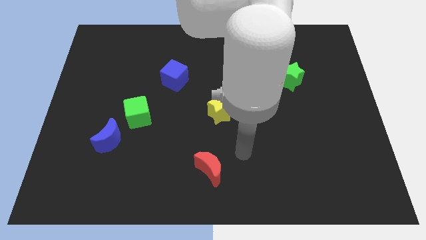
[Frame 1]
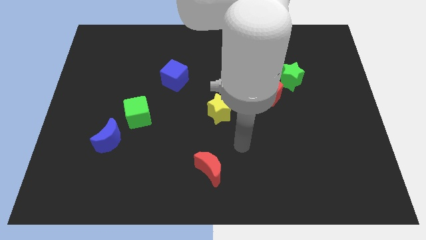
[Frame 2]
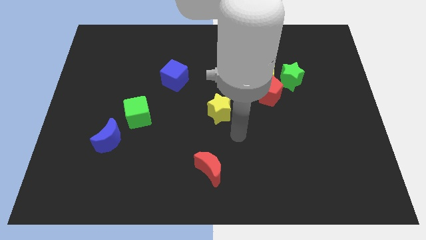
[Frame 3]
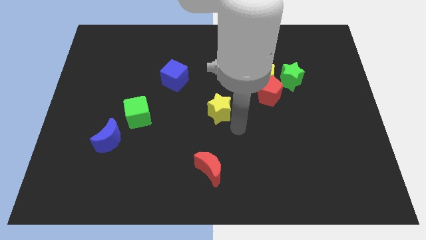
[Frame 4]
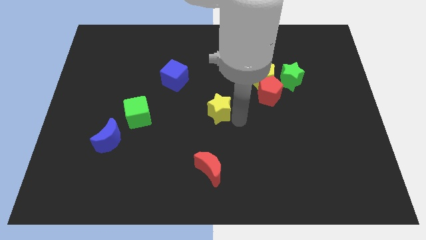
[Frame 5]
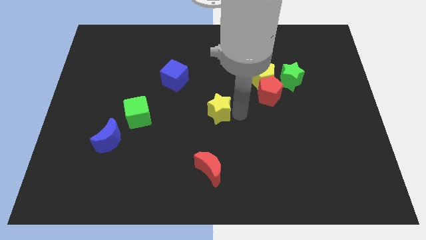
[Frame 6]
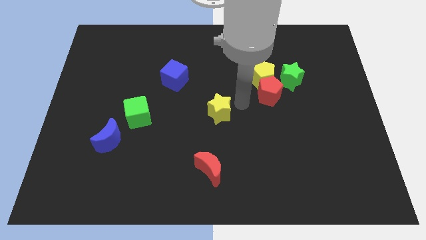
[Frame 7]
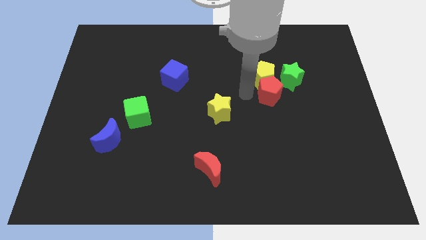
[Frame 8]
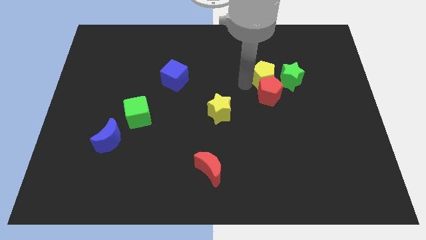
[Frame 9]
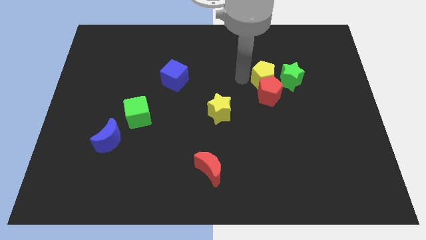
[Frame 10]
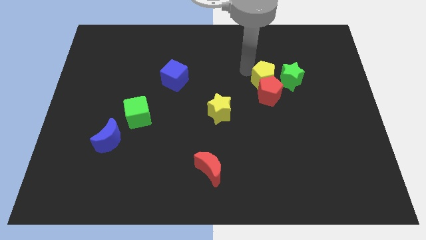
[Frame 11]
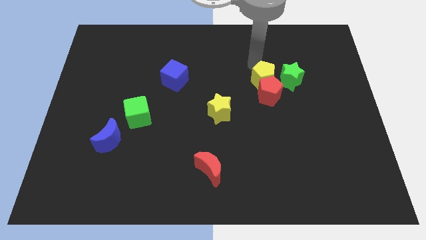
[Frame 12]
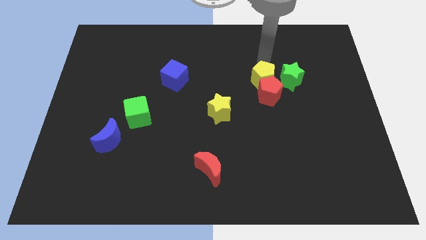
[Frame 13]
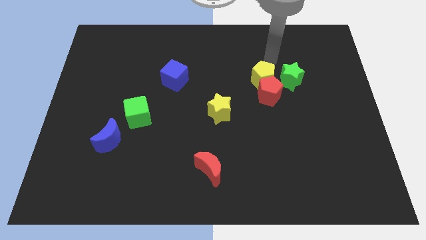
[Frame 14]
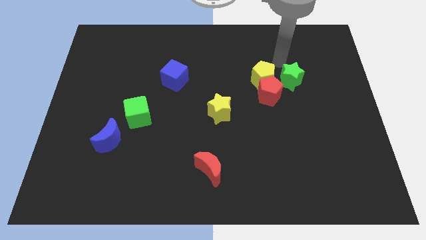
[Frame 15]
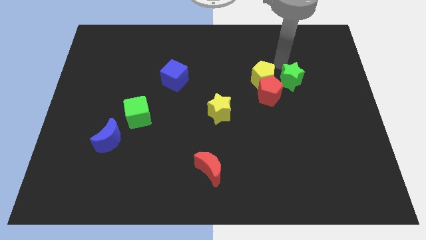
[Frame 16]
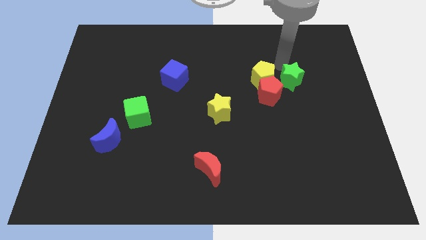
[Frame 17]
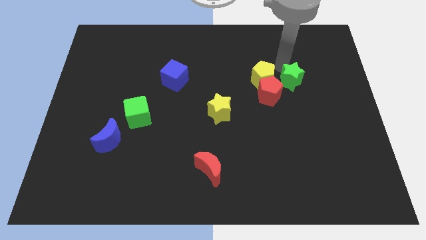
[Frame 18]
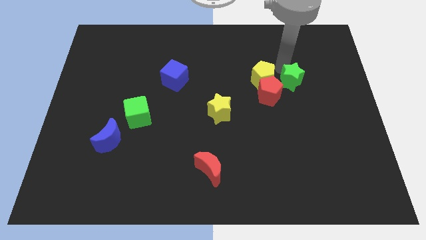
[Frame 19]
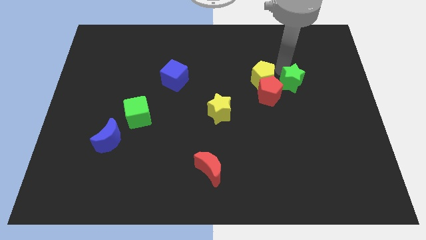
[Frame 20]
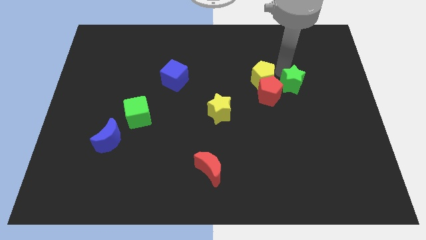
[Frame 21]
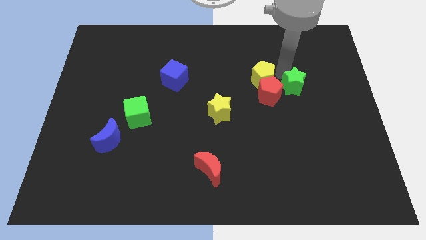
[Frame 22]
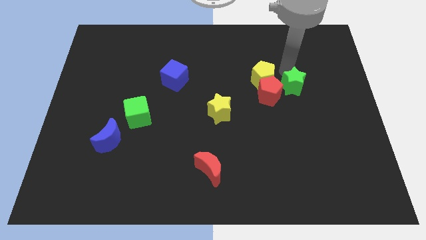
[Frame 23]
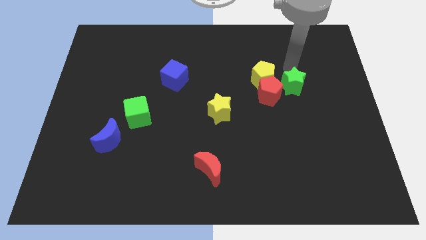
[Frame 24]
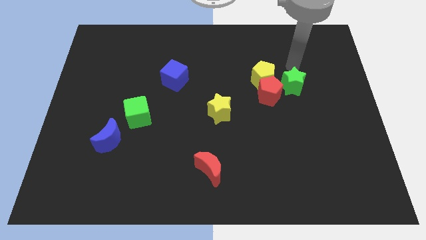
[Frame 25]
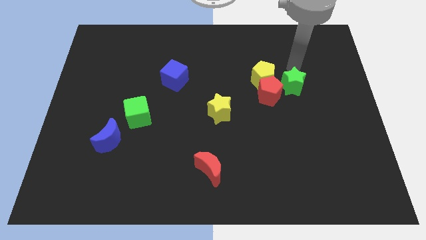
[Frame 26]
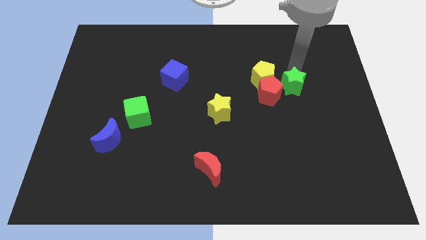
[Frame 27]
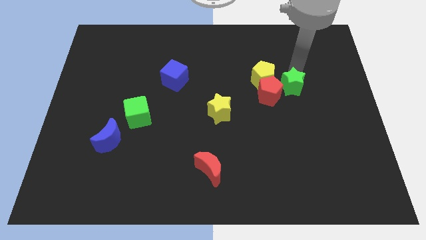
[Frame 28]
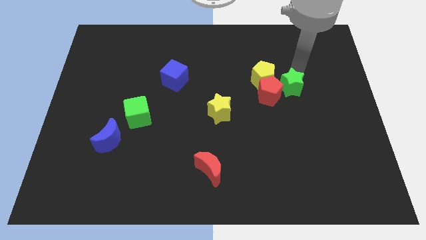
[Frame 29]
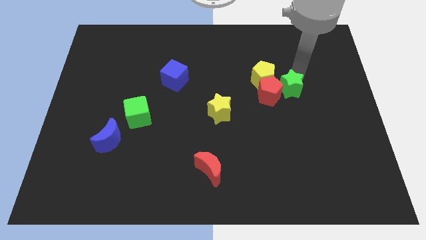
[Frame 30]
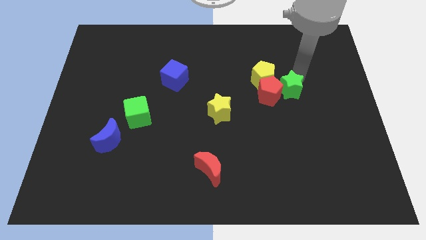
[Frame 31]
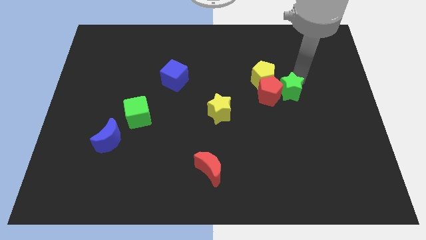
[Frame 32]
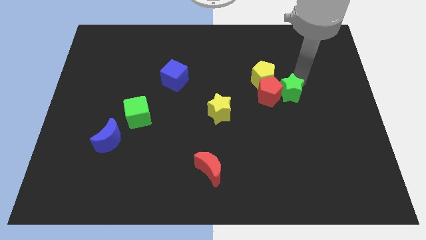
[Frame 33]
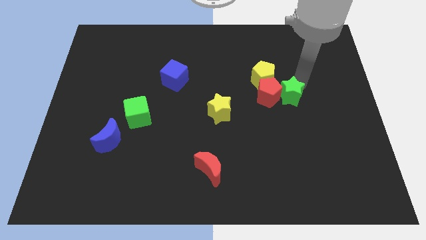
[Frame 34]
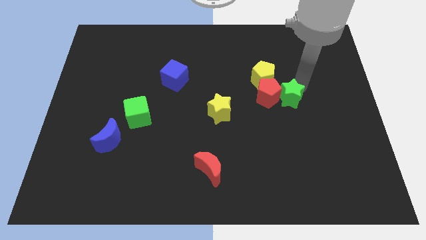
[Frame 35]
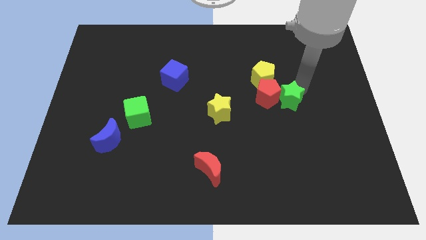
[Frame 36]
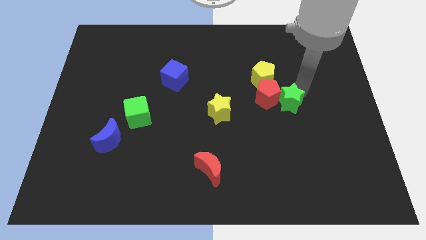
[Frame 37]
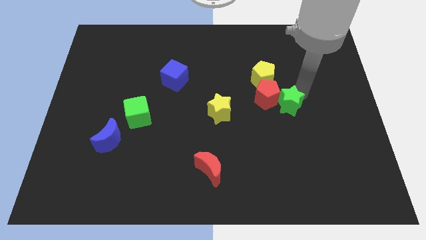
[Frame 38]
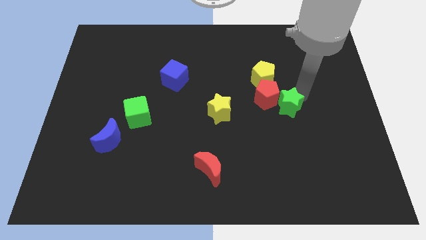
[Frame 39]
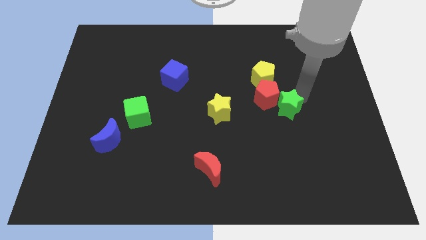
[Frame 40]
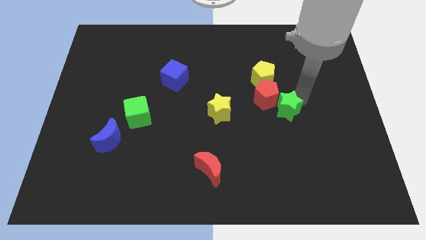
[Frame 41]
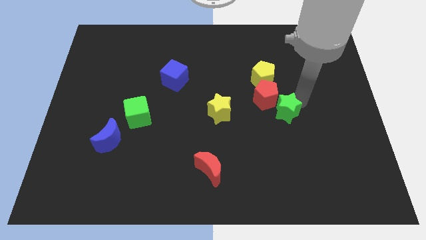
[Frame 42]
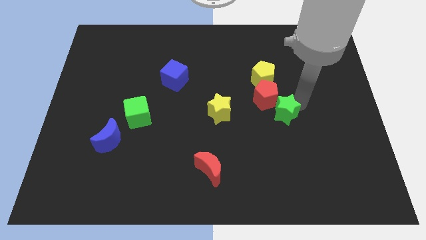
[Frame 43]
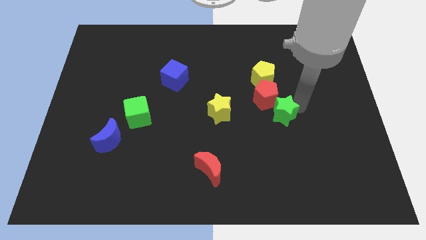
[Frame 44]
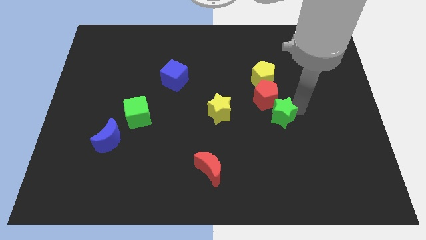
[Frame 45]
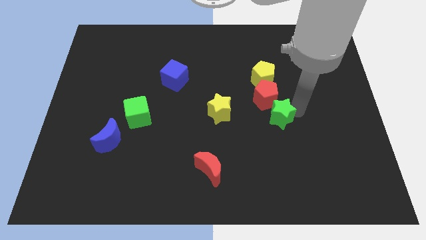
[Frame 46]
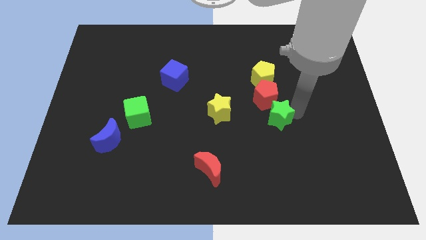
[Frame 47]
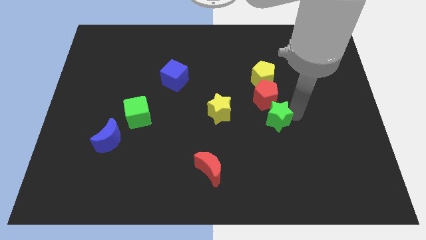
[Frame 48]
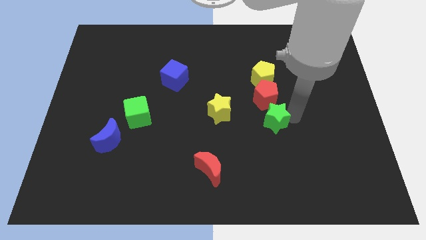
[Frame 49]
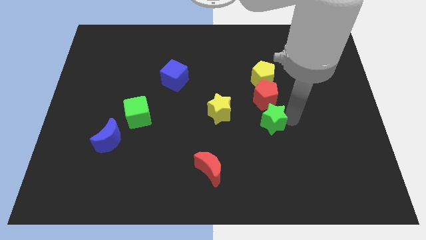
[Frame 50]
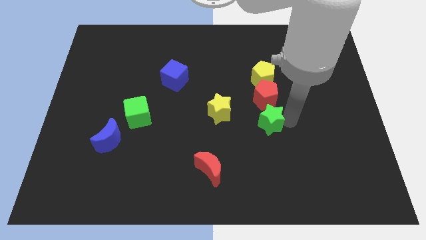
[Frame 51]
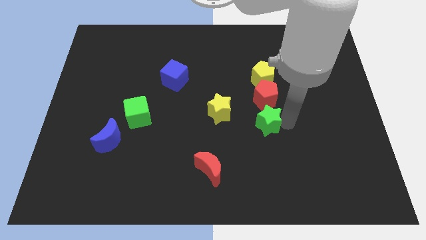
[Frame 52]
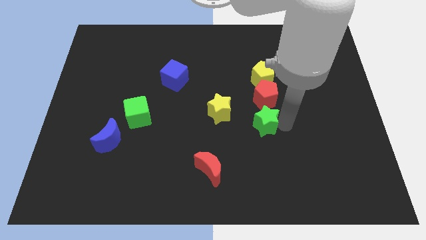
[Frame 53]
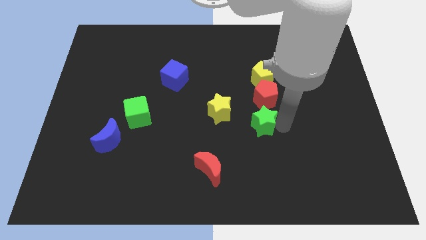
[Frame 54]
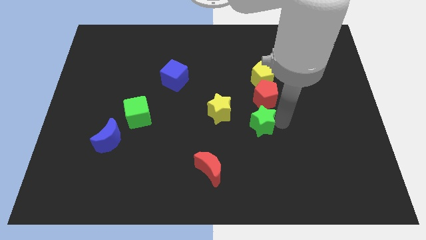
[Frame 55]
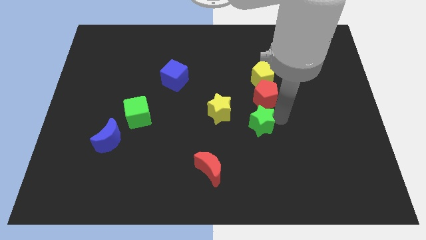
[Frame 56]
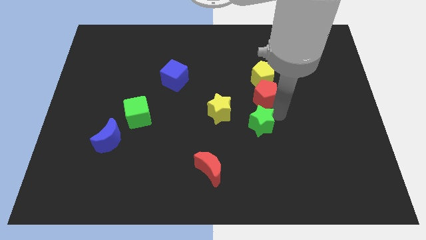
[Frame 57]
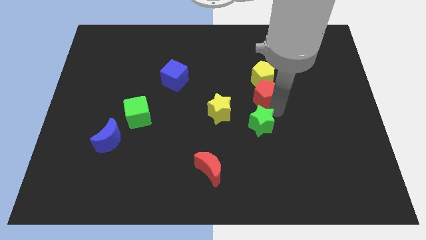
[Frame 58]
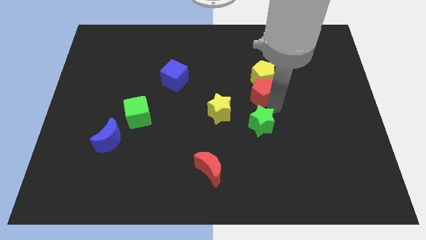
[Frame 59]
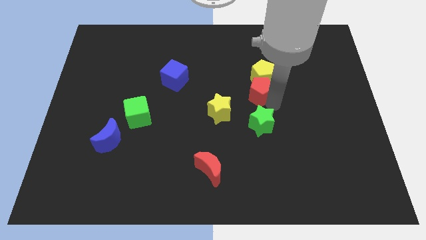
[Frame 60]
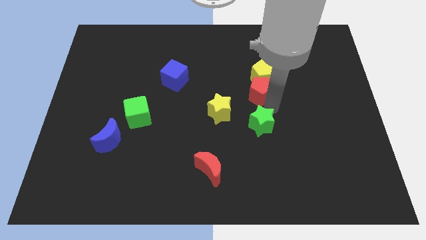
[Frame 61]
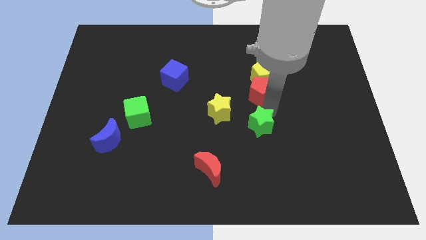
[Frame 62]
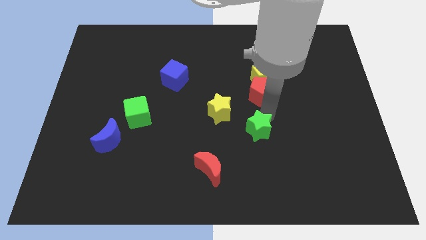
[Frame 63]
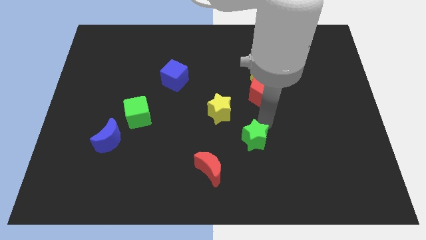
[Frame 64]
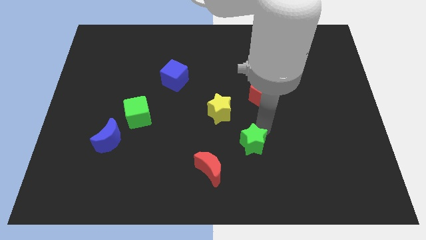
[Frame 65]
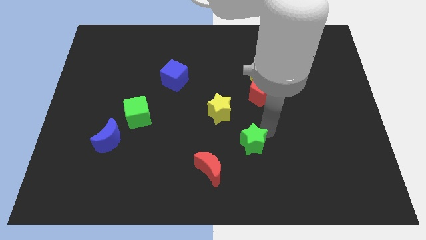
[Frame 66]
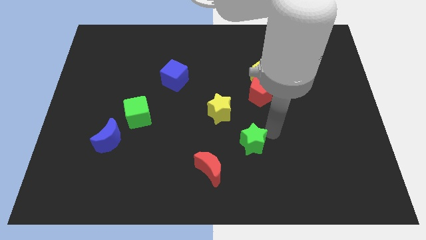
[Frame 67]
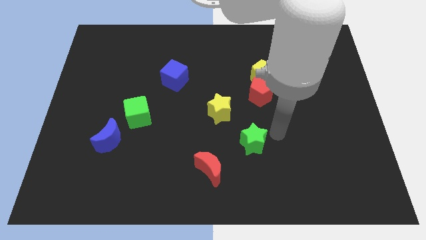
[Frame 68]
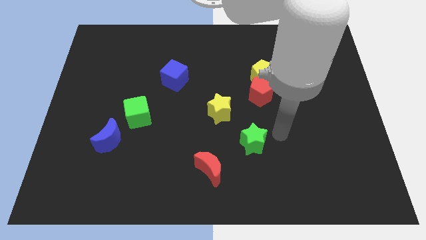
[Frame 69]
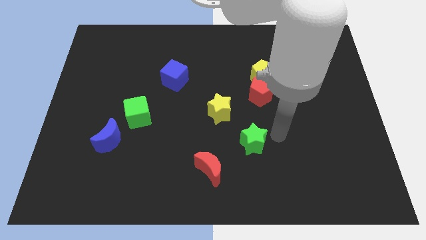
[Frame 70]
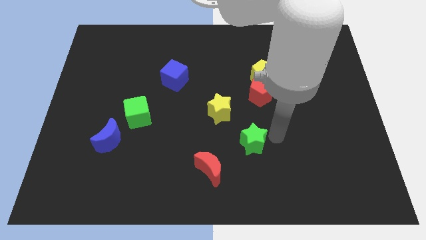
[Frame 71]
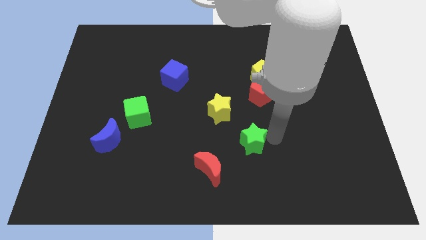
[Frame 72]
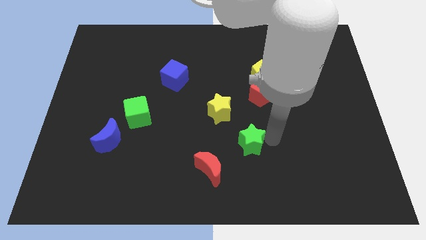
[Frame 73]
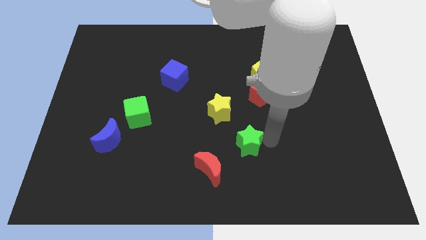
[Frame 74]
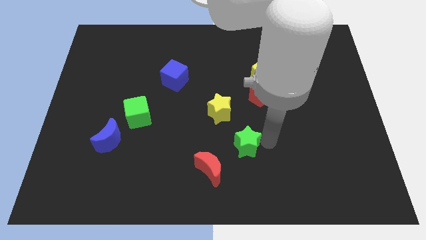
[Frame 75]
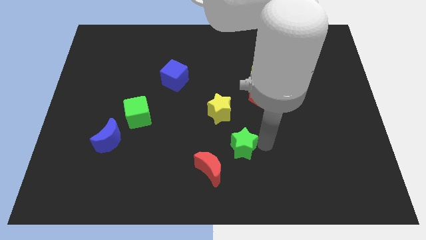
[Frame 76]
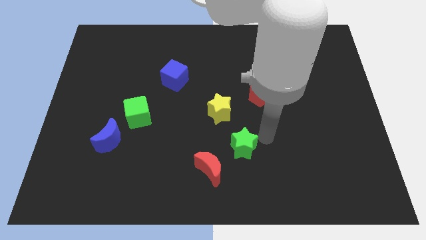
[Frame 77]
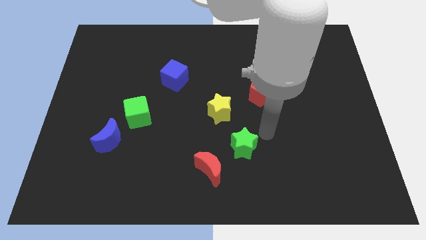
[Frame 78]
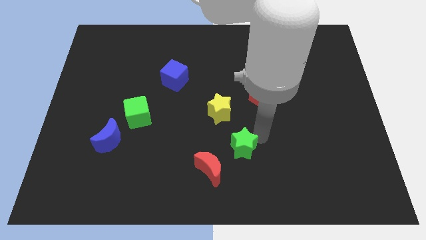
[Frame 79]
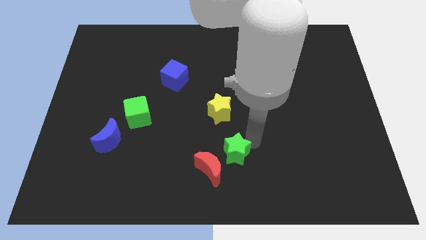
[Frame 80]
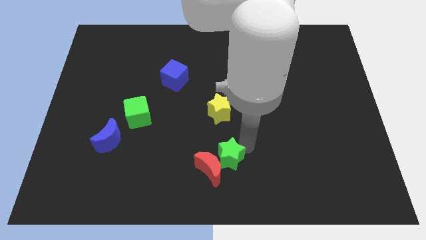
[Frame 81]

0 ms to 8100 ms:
slide the green star towards the red moon
